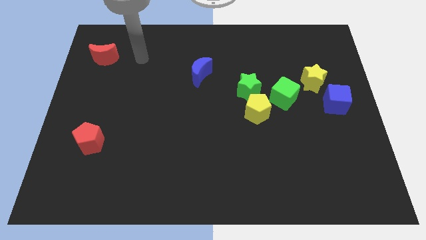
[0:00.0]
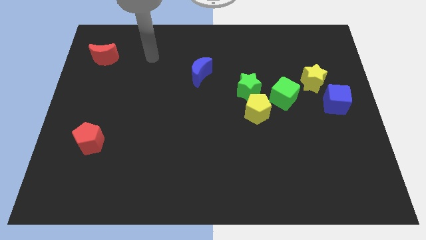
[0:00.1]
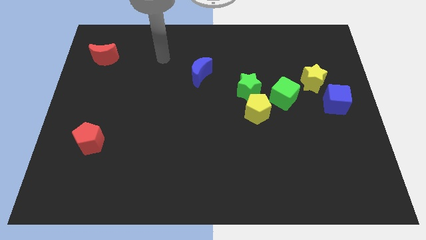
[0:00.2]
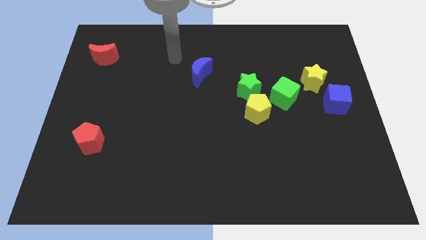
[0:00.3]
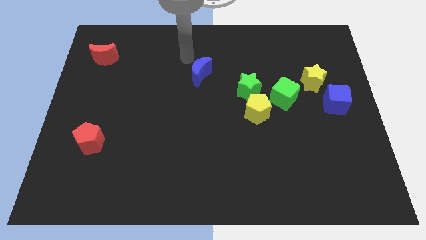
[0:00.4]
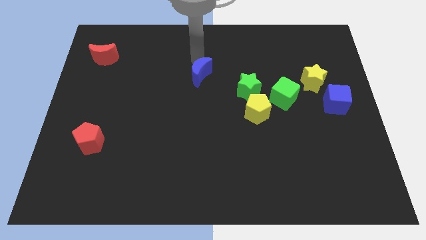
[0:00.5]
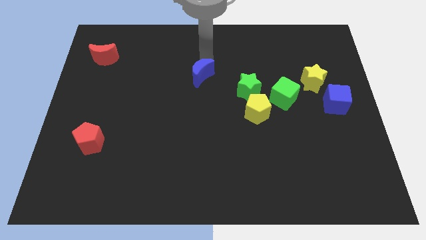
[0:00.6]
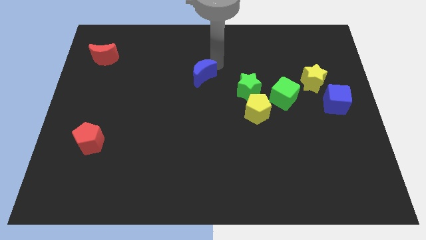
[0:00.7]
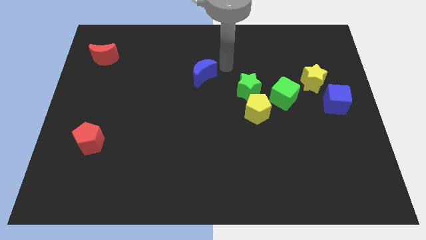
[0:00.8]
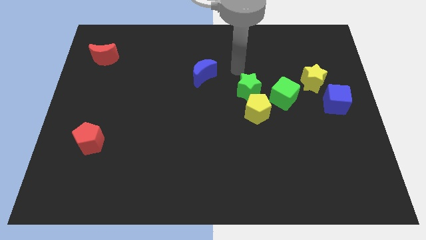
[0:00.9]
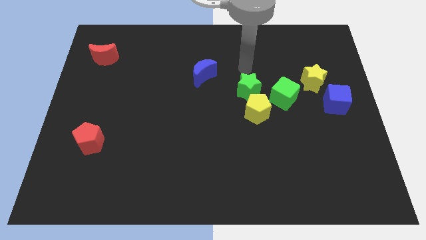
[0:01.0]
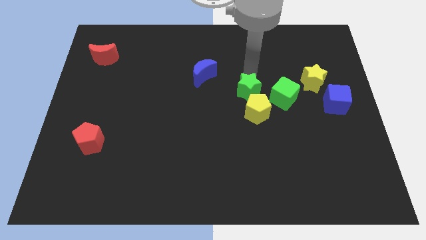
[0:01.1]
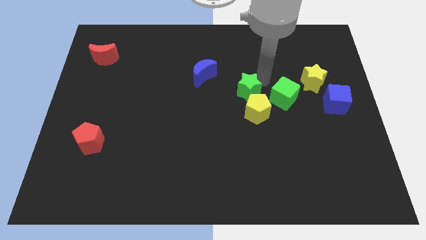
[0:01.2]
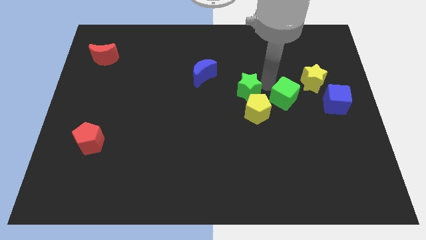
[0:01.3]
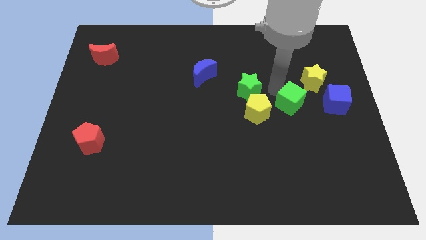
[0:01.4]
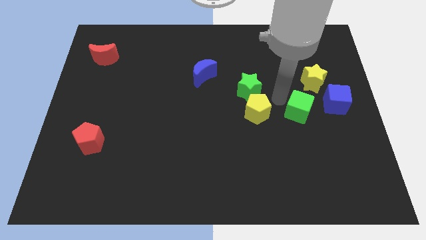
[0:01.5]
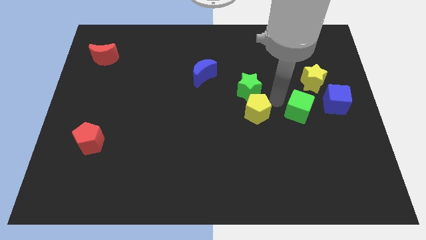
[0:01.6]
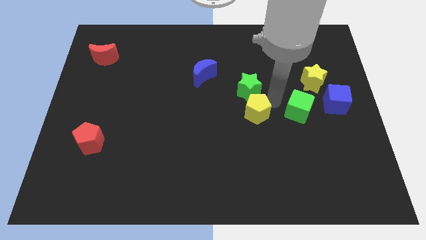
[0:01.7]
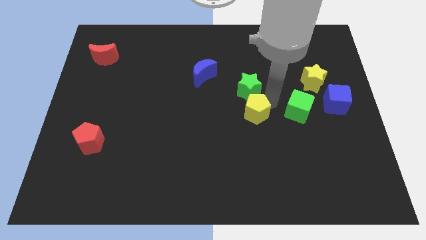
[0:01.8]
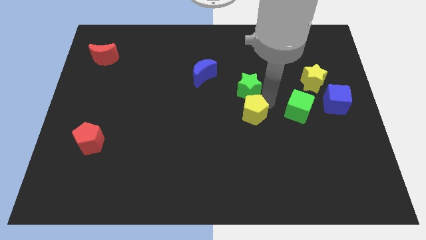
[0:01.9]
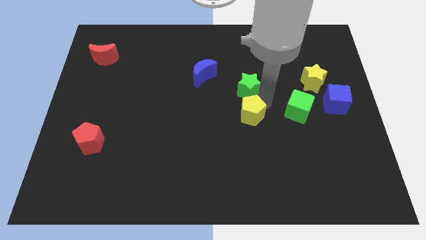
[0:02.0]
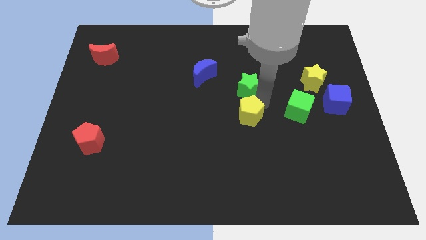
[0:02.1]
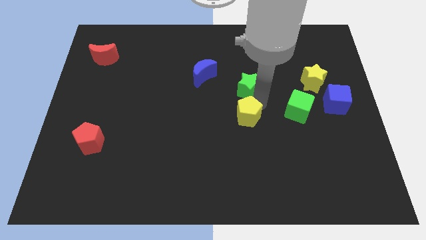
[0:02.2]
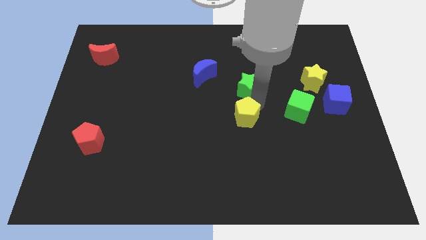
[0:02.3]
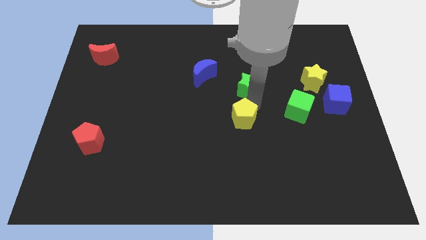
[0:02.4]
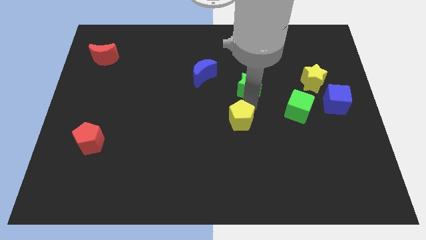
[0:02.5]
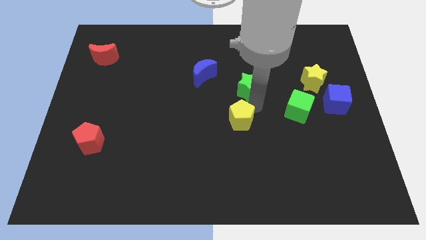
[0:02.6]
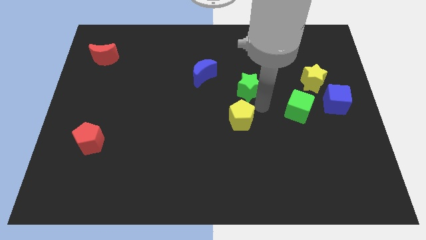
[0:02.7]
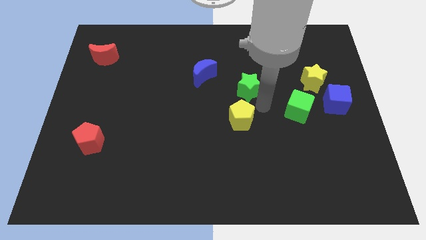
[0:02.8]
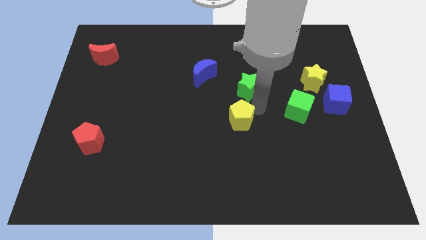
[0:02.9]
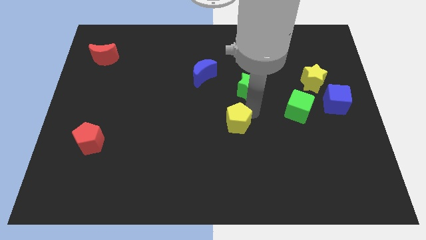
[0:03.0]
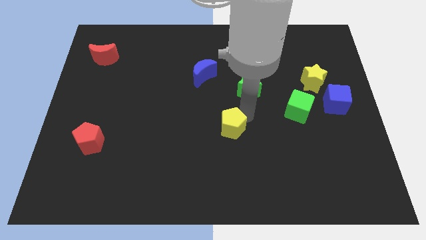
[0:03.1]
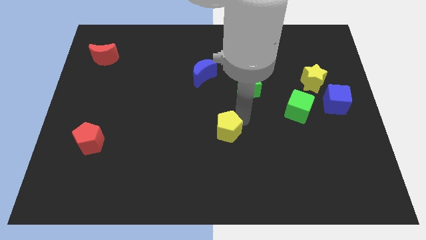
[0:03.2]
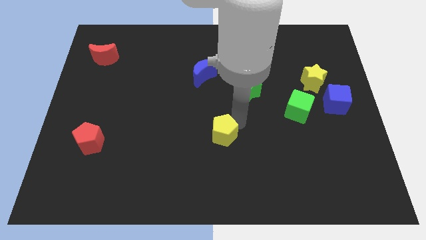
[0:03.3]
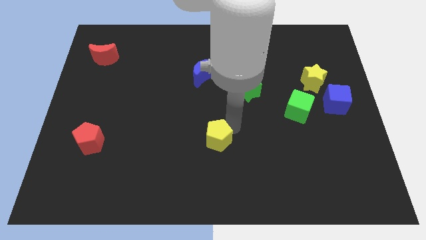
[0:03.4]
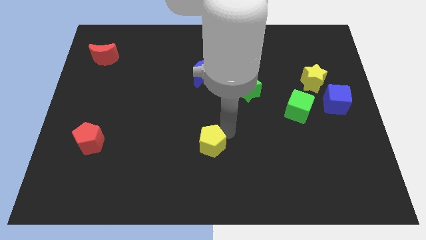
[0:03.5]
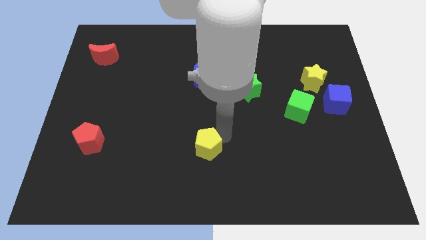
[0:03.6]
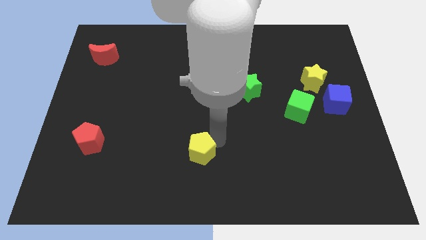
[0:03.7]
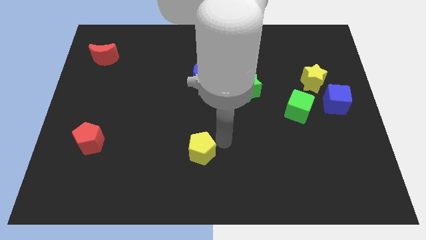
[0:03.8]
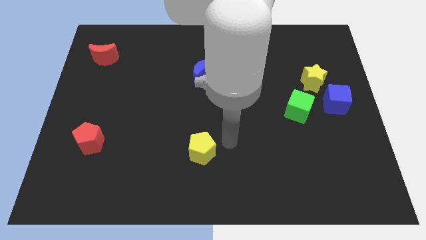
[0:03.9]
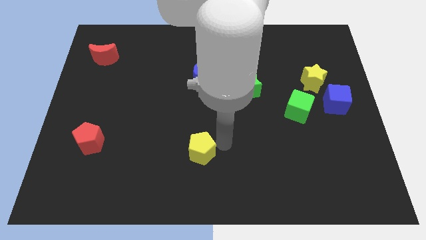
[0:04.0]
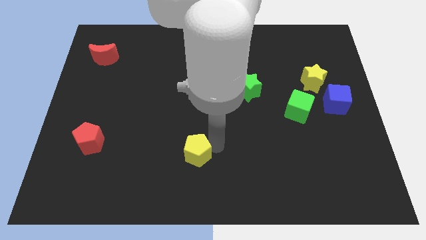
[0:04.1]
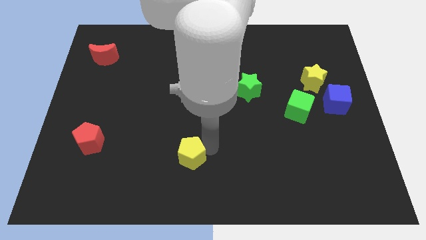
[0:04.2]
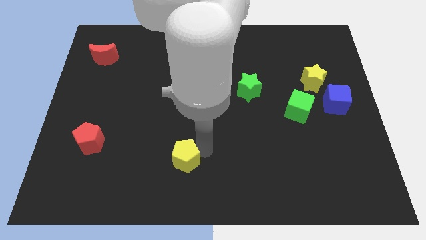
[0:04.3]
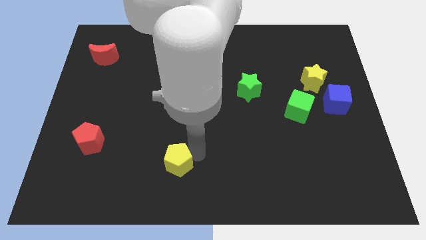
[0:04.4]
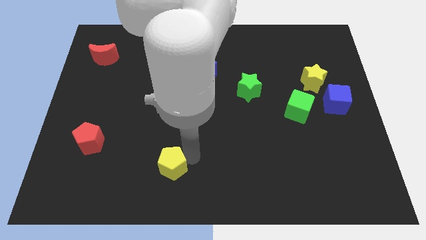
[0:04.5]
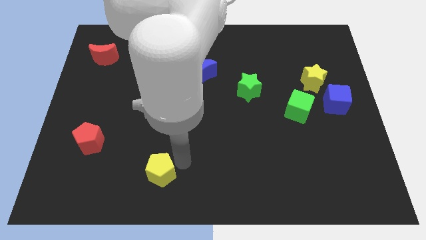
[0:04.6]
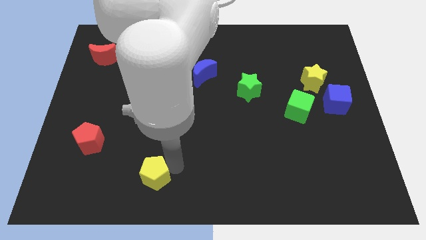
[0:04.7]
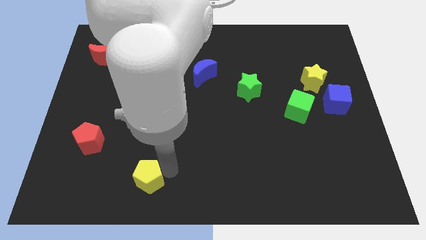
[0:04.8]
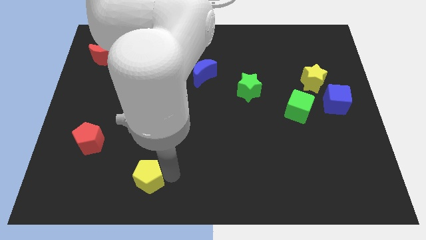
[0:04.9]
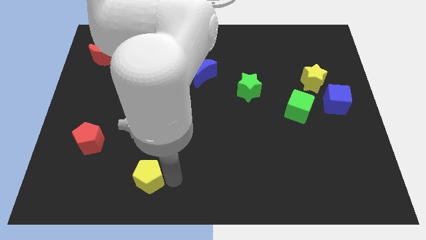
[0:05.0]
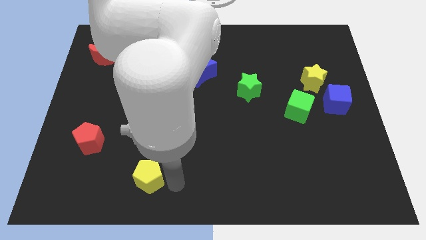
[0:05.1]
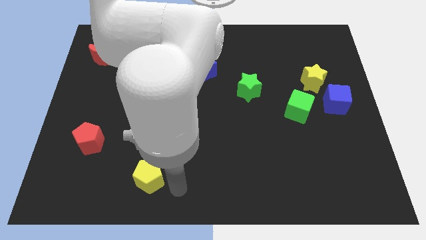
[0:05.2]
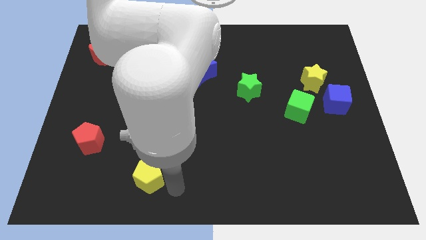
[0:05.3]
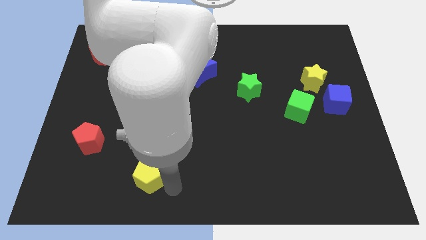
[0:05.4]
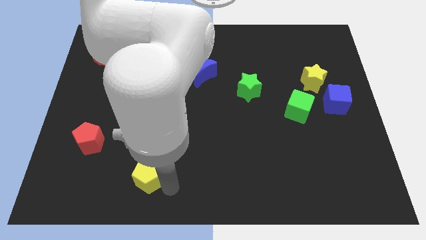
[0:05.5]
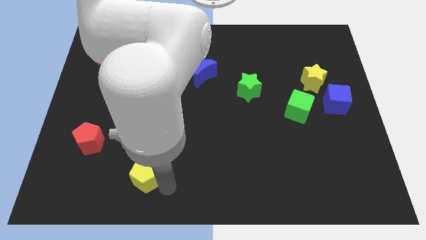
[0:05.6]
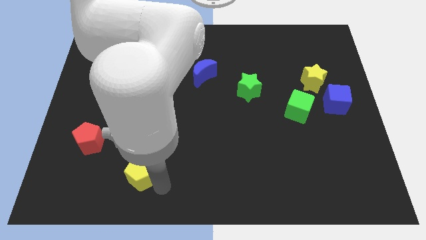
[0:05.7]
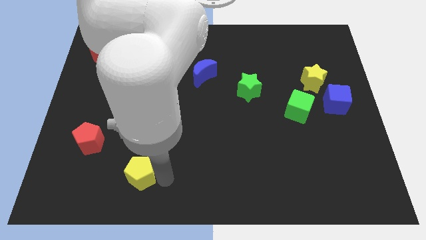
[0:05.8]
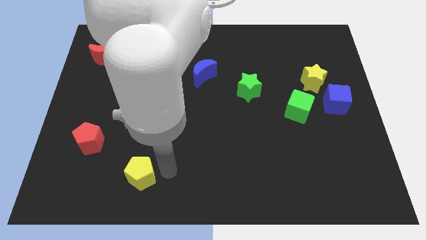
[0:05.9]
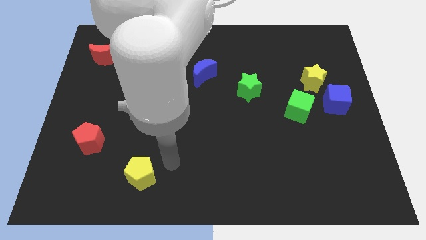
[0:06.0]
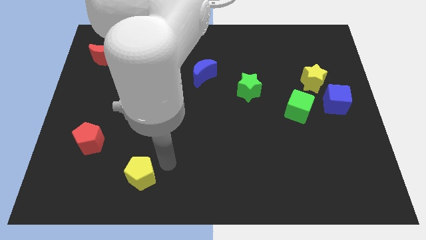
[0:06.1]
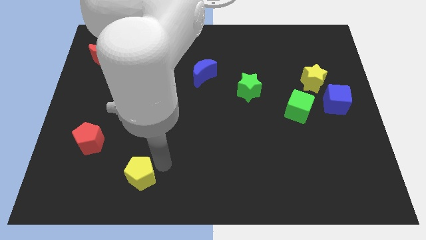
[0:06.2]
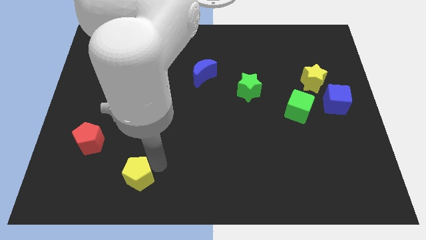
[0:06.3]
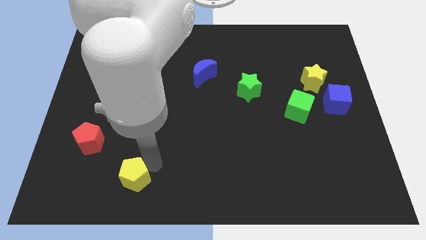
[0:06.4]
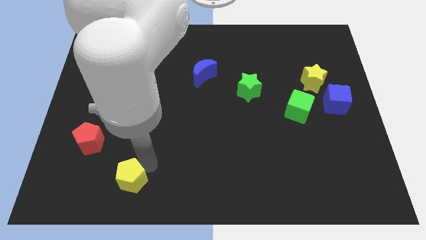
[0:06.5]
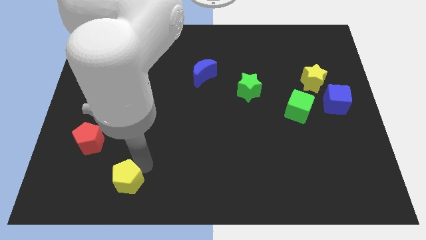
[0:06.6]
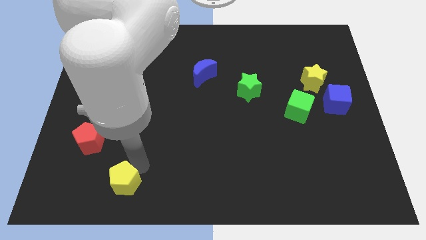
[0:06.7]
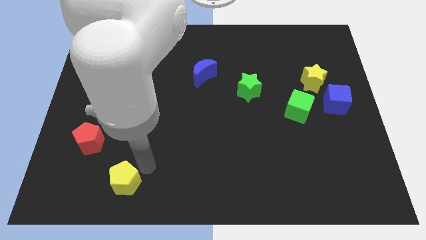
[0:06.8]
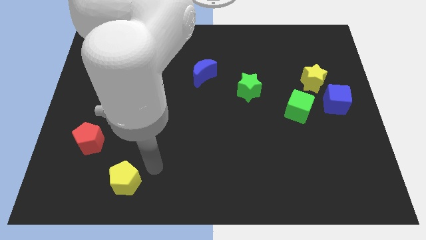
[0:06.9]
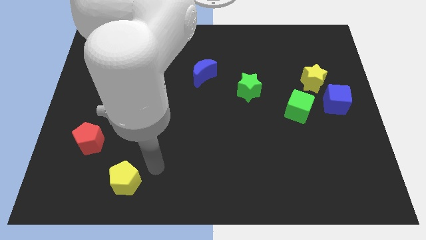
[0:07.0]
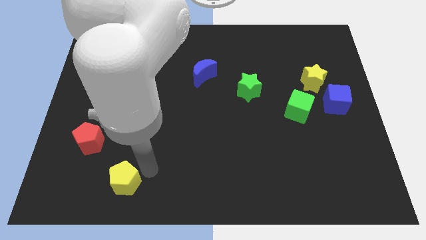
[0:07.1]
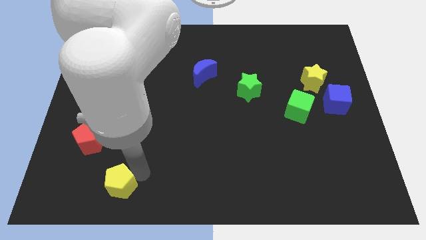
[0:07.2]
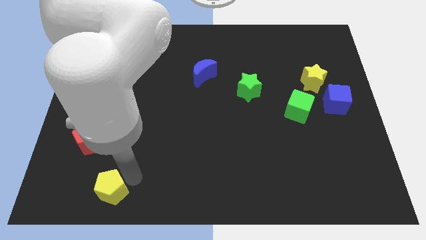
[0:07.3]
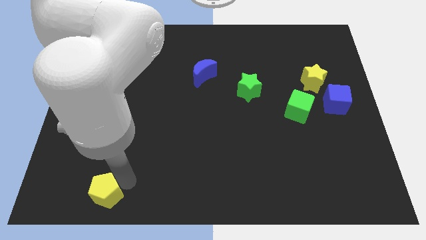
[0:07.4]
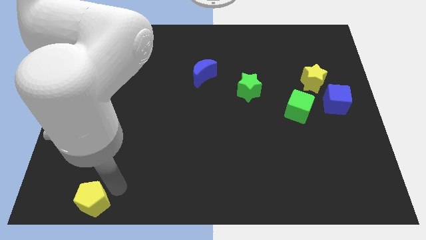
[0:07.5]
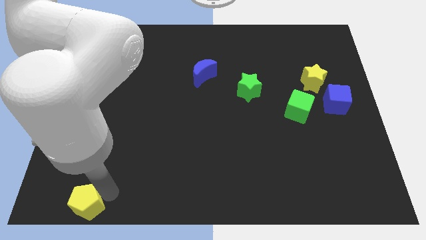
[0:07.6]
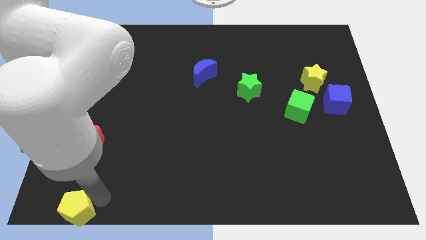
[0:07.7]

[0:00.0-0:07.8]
push the yellow pentagon to the bottom left of the board
